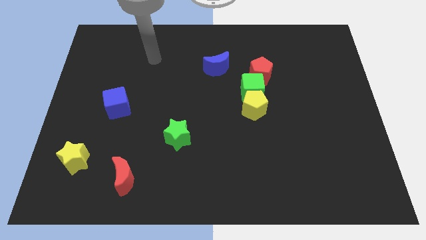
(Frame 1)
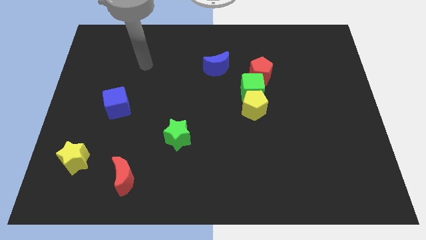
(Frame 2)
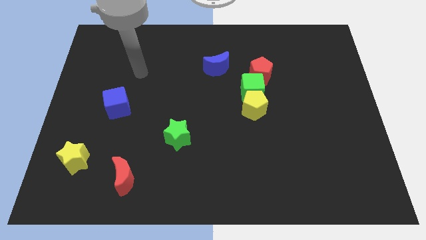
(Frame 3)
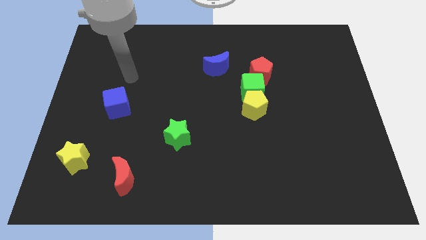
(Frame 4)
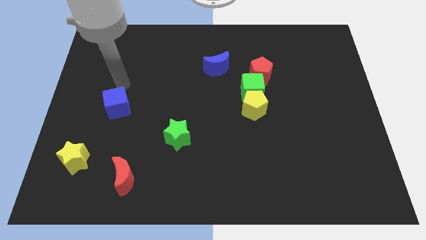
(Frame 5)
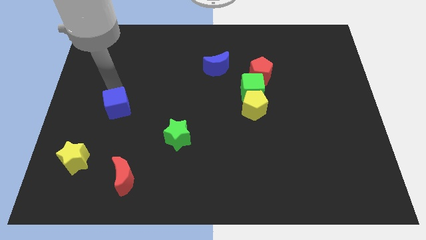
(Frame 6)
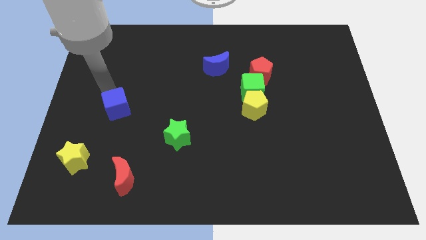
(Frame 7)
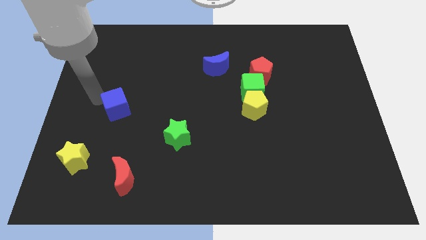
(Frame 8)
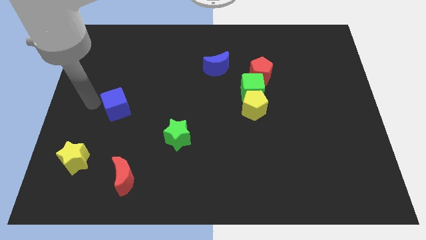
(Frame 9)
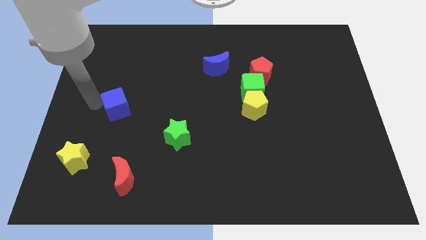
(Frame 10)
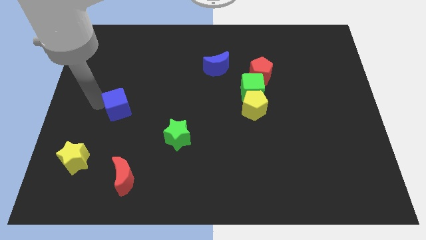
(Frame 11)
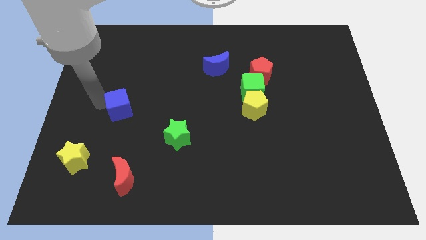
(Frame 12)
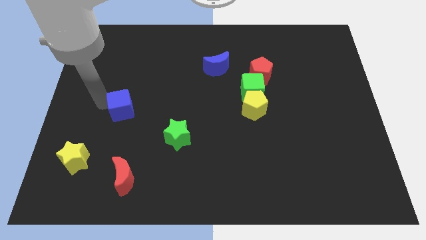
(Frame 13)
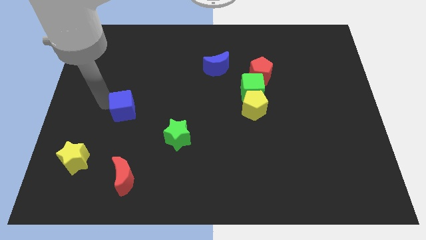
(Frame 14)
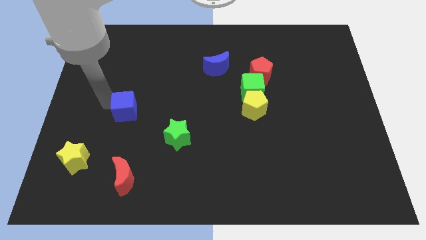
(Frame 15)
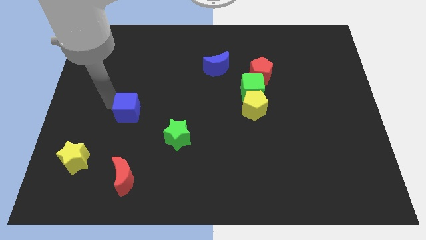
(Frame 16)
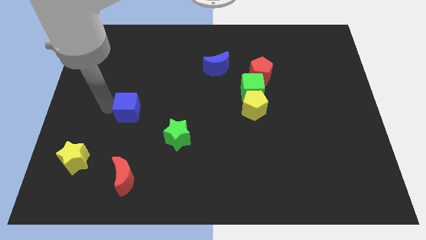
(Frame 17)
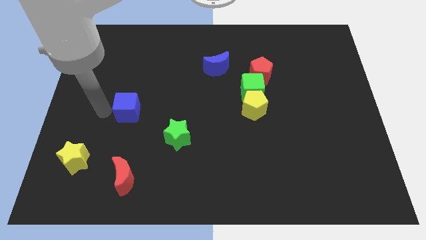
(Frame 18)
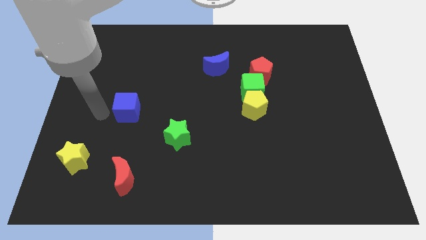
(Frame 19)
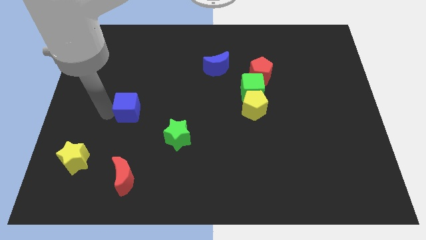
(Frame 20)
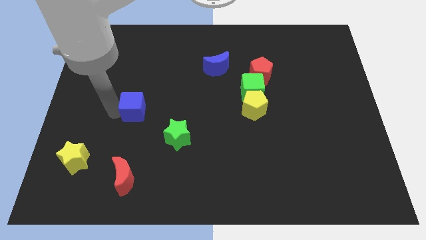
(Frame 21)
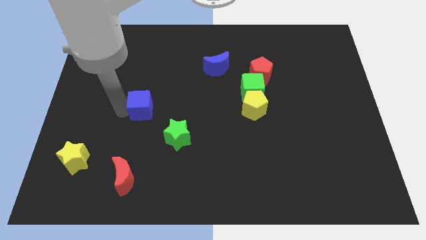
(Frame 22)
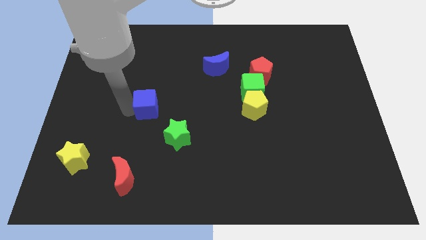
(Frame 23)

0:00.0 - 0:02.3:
slightly slide the blue cube right

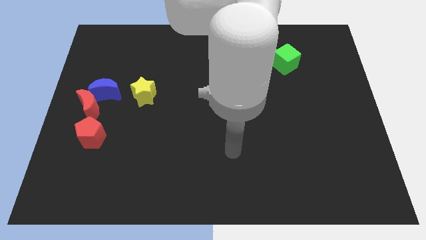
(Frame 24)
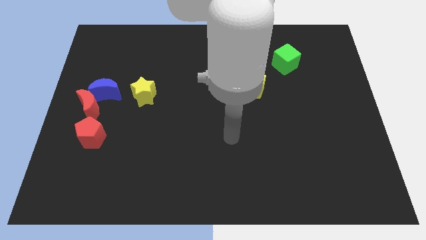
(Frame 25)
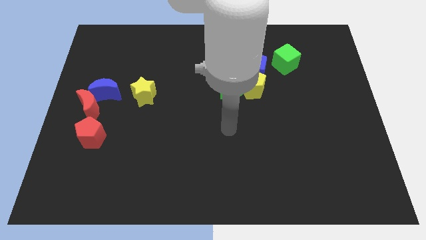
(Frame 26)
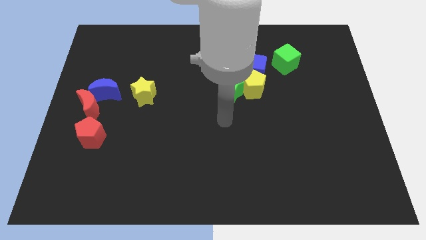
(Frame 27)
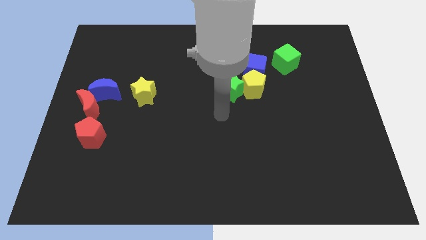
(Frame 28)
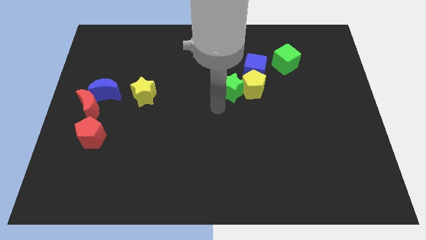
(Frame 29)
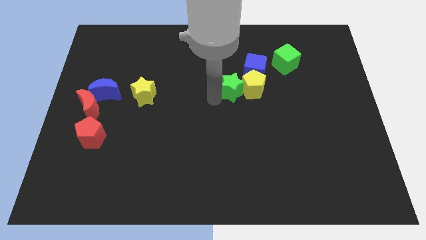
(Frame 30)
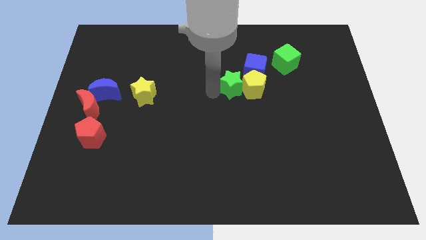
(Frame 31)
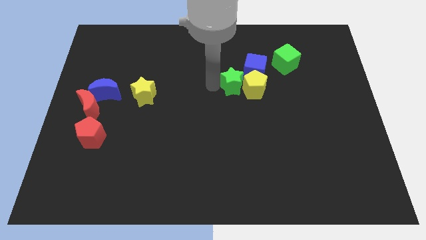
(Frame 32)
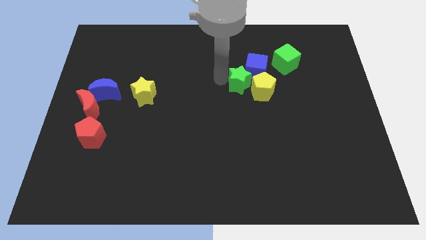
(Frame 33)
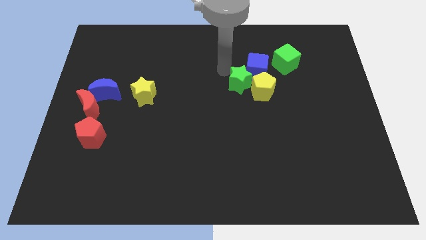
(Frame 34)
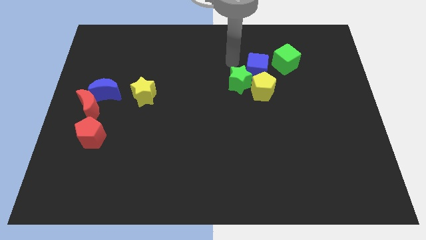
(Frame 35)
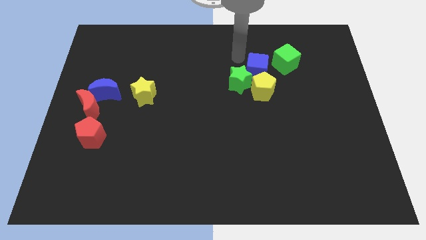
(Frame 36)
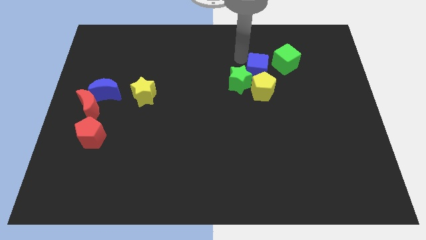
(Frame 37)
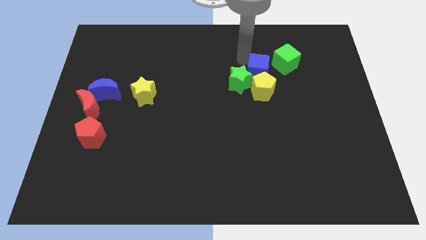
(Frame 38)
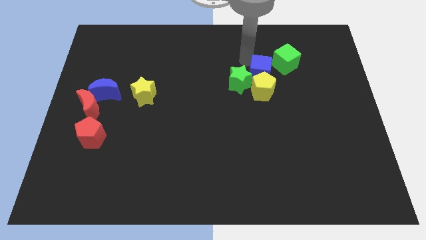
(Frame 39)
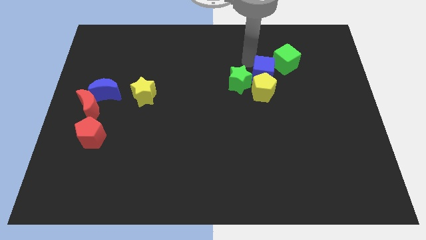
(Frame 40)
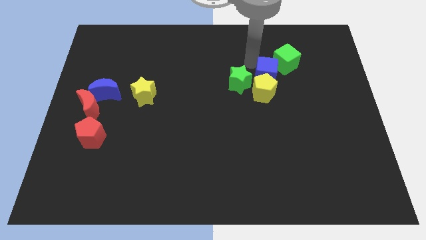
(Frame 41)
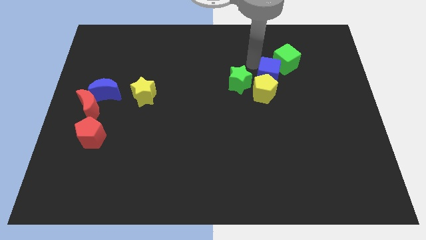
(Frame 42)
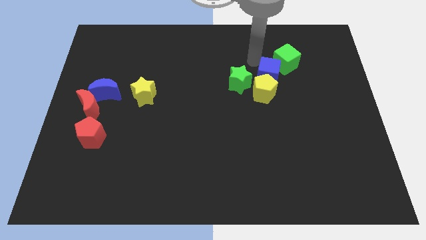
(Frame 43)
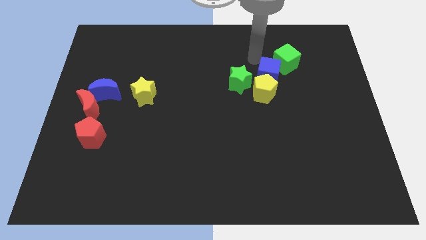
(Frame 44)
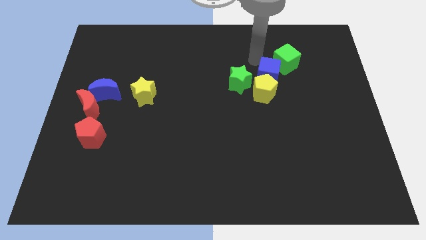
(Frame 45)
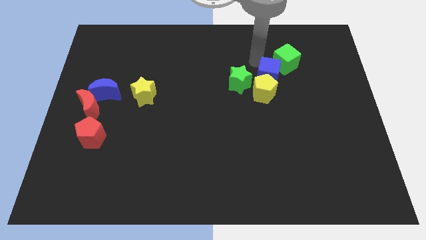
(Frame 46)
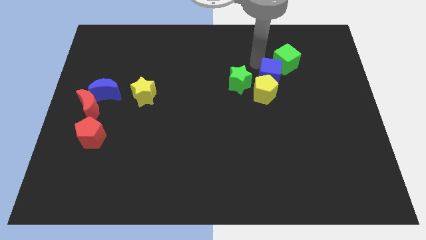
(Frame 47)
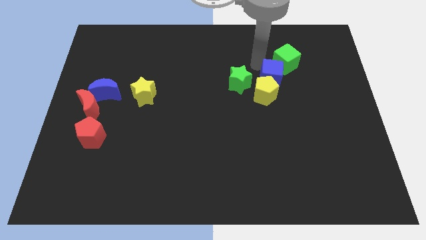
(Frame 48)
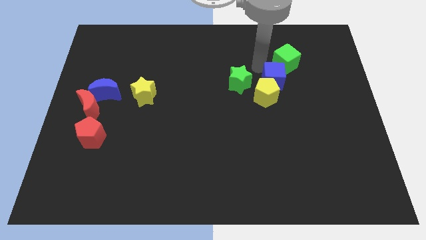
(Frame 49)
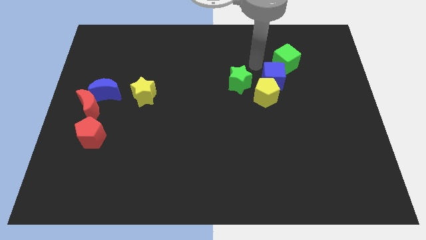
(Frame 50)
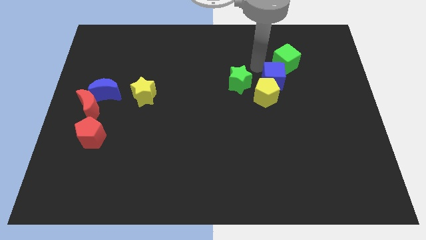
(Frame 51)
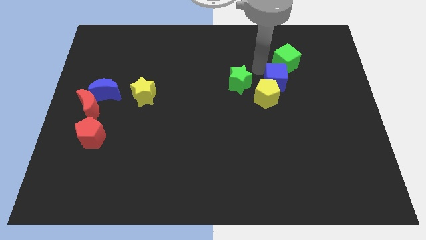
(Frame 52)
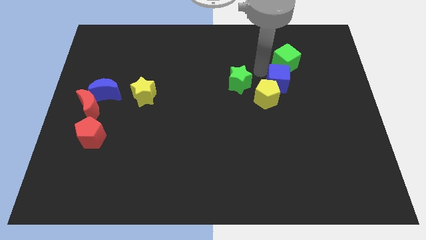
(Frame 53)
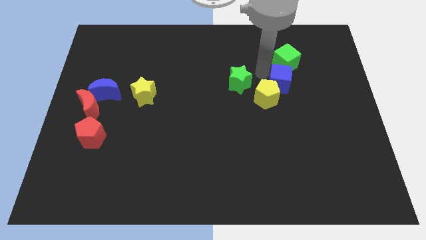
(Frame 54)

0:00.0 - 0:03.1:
slightly slide the blue cube diagonally downwards and to the right

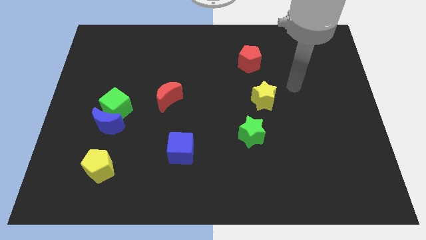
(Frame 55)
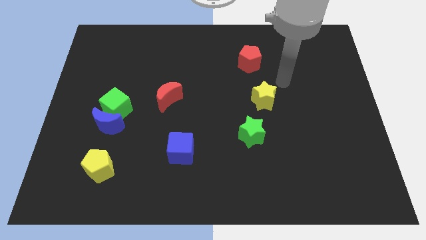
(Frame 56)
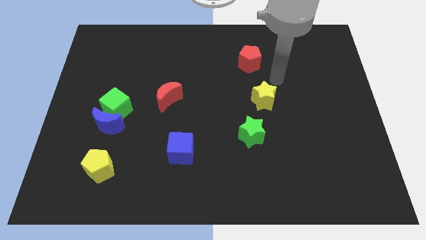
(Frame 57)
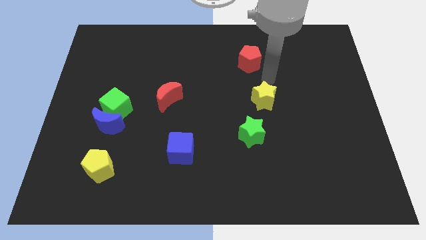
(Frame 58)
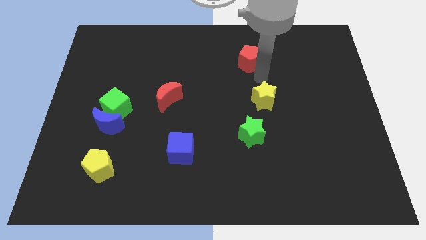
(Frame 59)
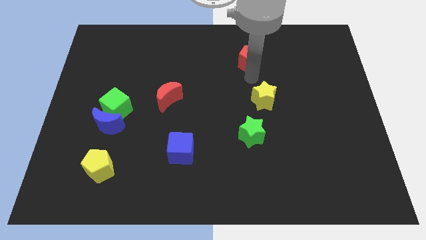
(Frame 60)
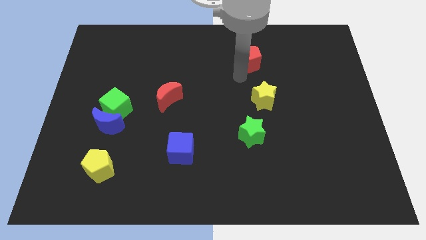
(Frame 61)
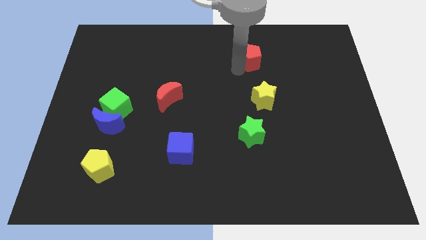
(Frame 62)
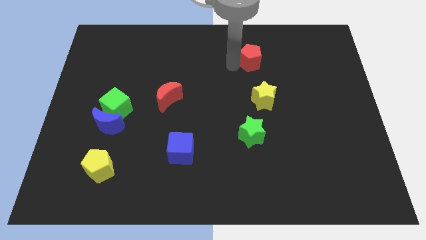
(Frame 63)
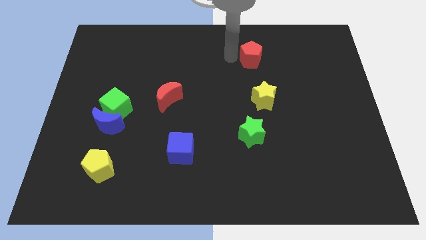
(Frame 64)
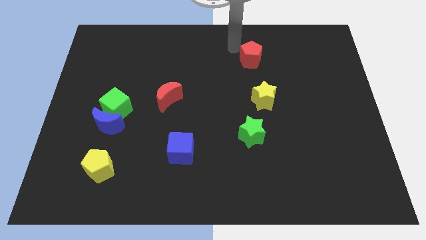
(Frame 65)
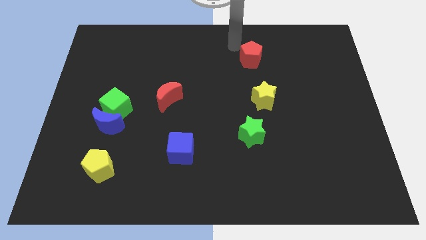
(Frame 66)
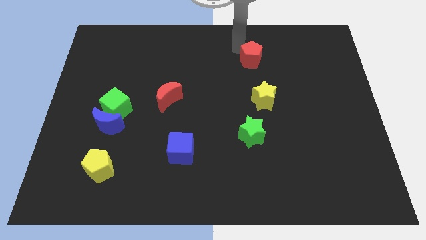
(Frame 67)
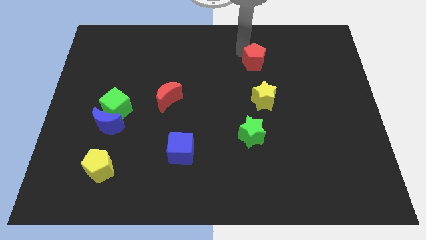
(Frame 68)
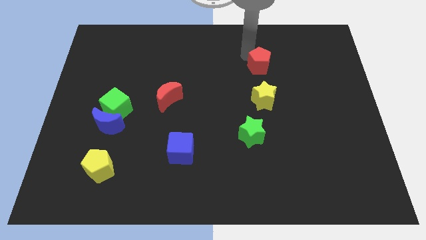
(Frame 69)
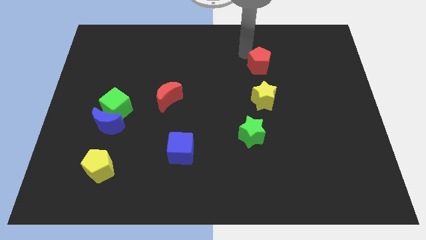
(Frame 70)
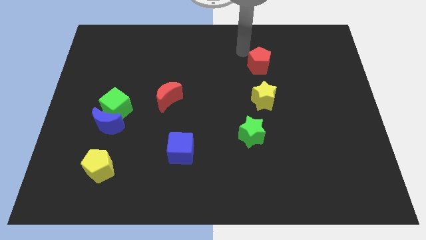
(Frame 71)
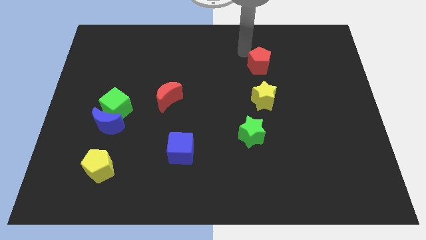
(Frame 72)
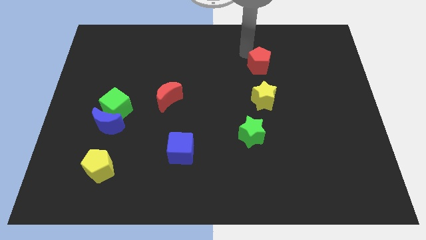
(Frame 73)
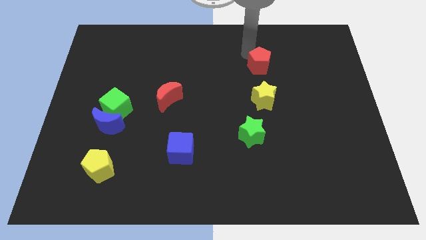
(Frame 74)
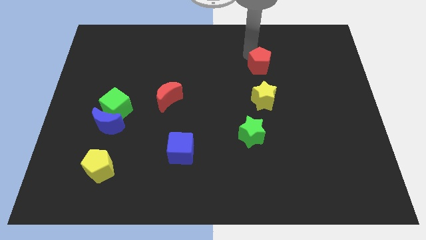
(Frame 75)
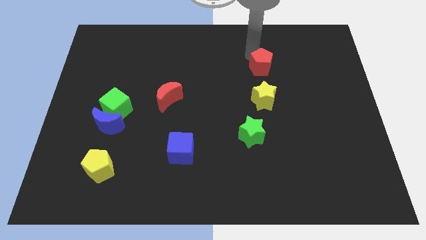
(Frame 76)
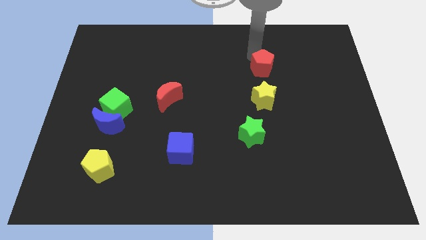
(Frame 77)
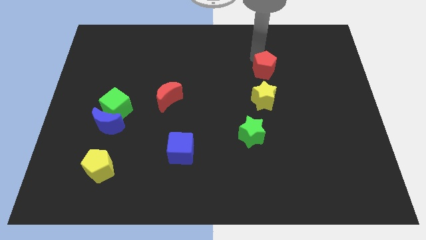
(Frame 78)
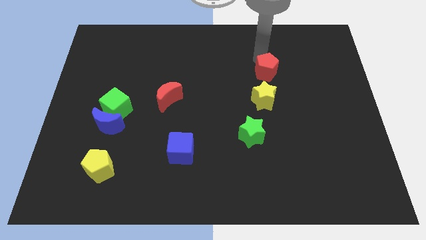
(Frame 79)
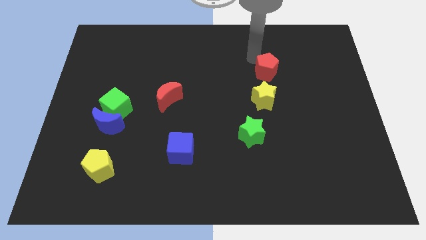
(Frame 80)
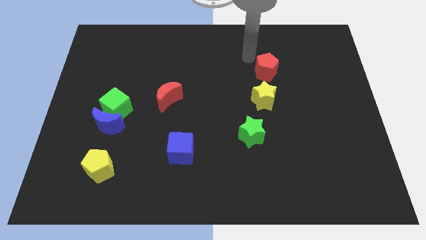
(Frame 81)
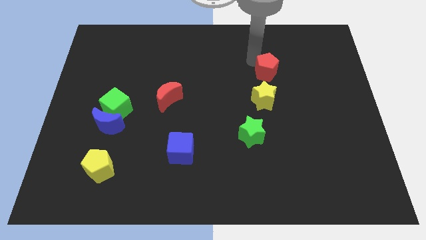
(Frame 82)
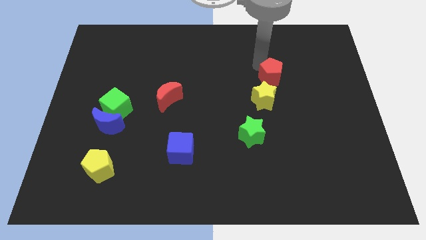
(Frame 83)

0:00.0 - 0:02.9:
slide the red pentagon downwards and then to the right somewhat
